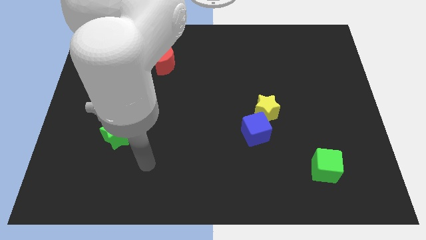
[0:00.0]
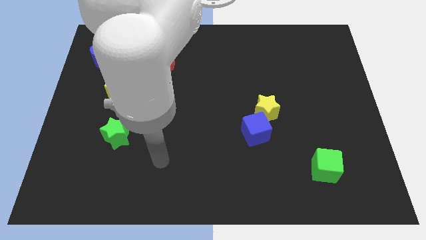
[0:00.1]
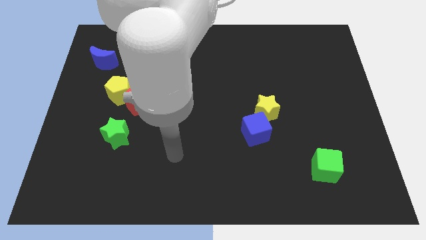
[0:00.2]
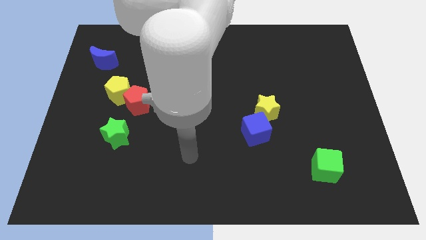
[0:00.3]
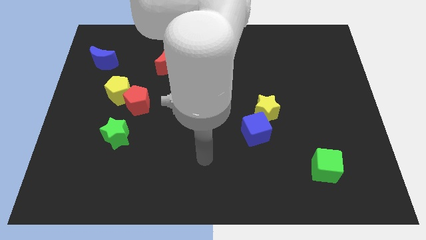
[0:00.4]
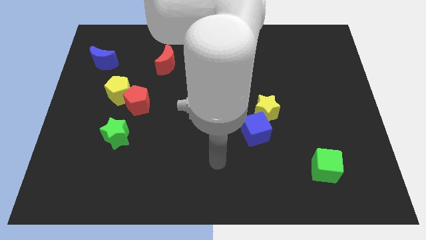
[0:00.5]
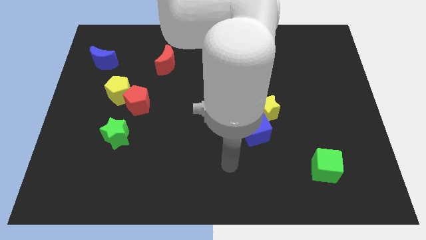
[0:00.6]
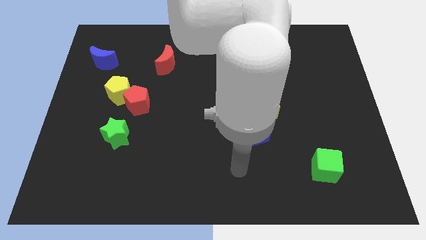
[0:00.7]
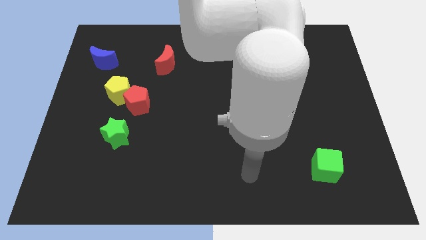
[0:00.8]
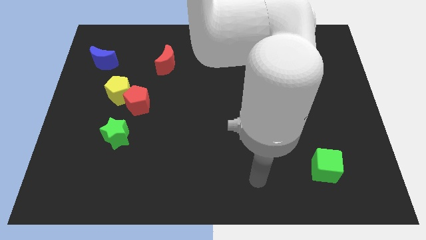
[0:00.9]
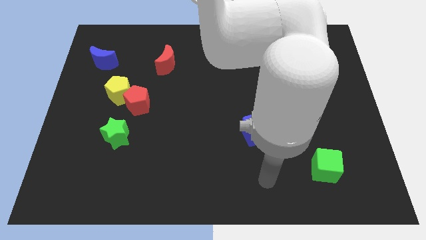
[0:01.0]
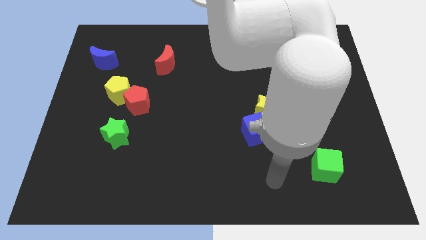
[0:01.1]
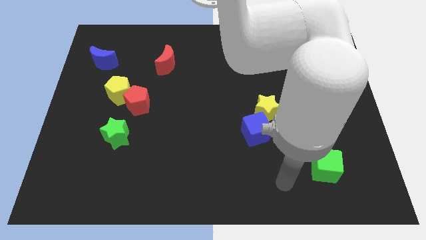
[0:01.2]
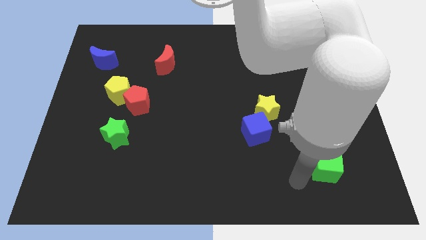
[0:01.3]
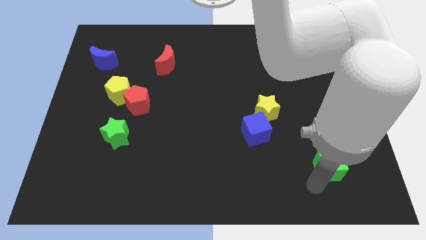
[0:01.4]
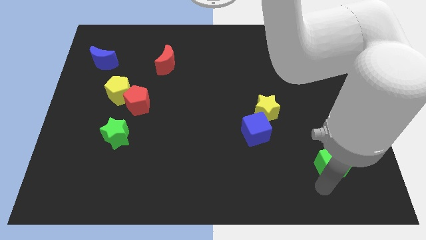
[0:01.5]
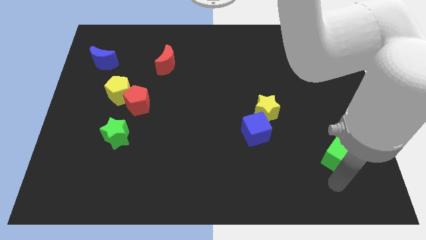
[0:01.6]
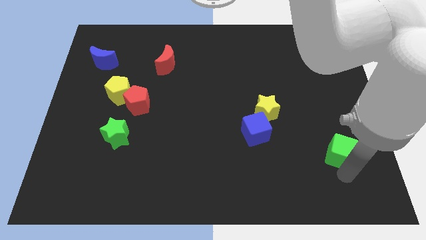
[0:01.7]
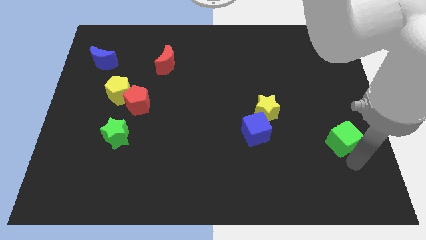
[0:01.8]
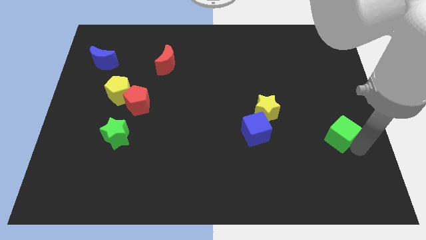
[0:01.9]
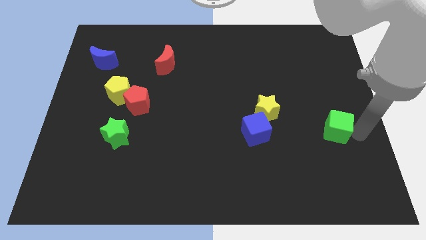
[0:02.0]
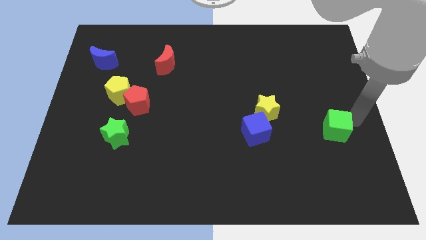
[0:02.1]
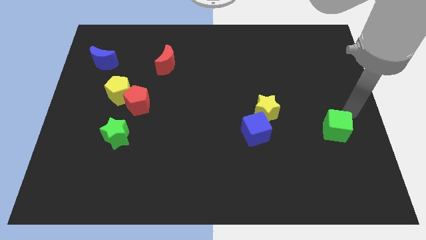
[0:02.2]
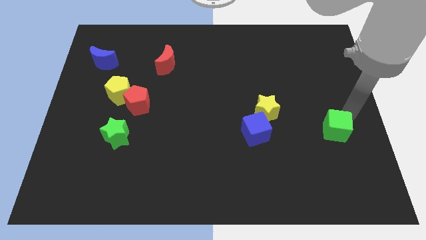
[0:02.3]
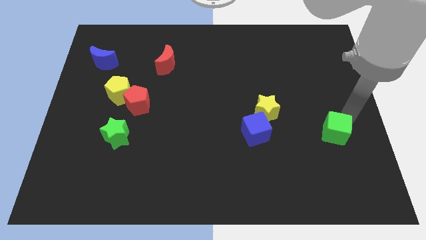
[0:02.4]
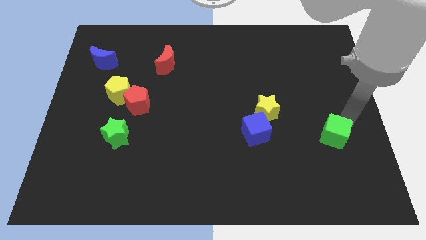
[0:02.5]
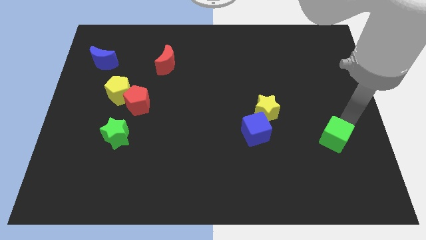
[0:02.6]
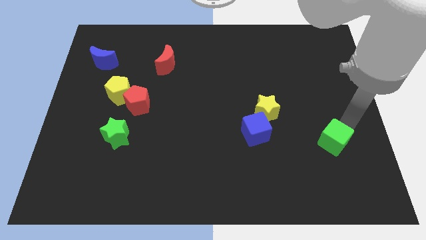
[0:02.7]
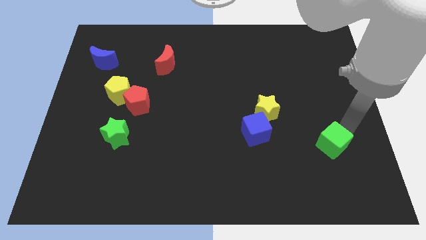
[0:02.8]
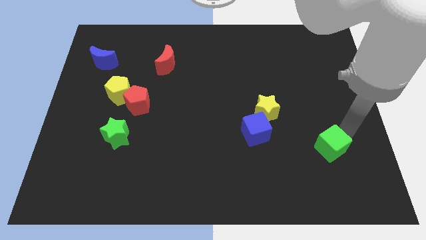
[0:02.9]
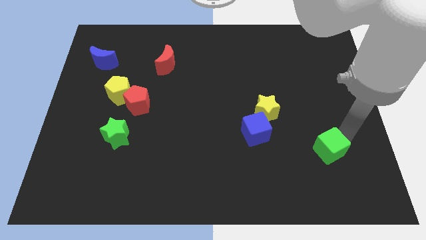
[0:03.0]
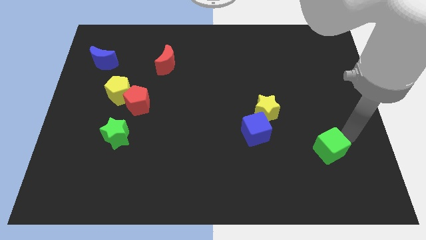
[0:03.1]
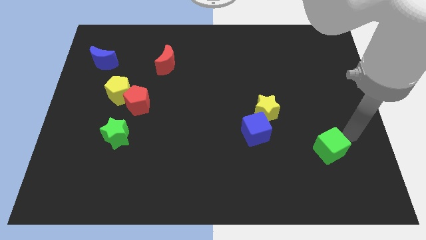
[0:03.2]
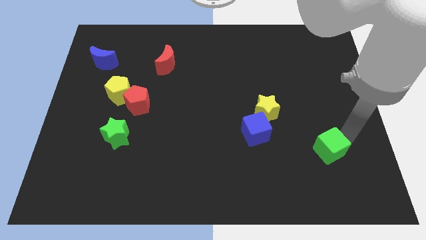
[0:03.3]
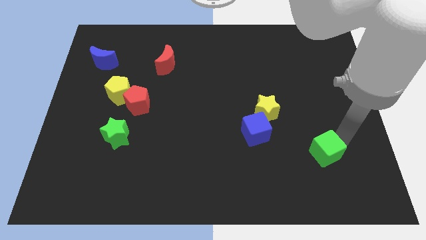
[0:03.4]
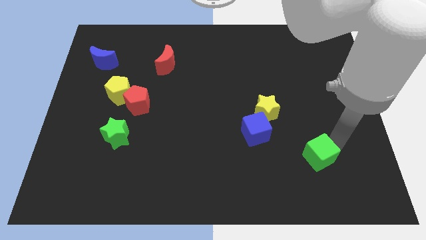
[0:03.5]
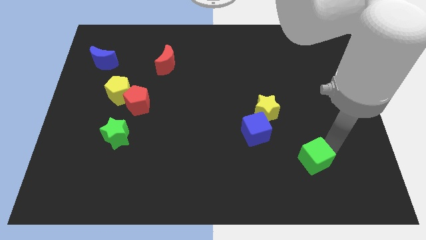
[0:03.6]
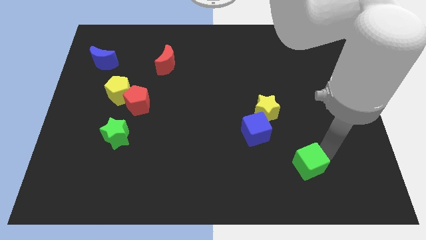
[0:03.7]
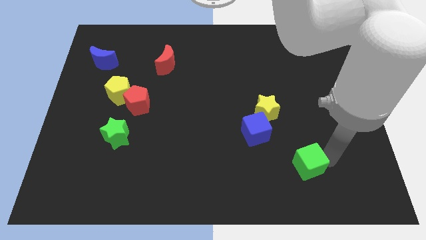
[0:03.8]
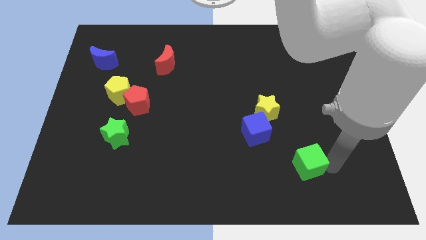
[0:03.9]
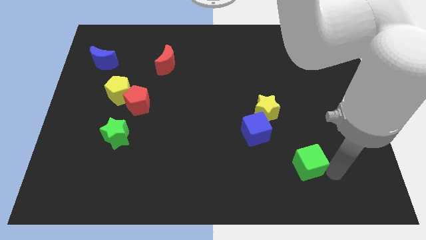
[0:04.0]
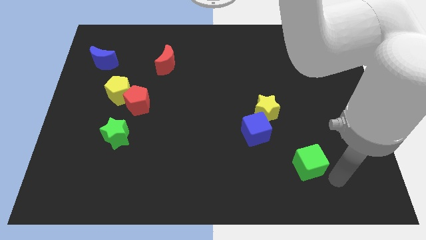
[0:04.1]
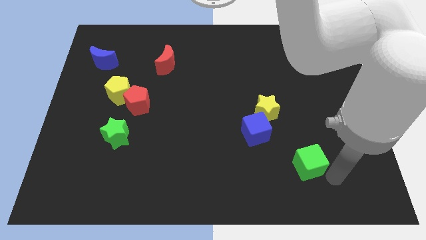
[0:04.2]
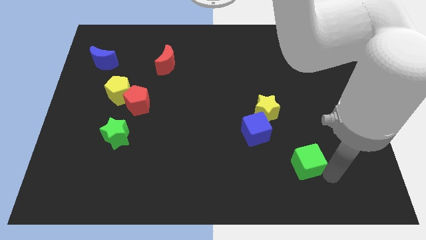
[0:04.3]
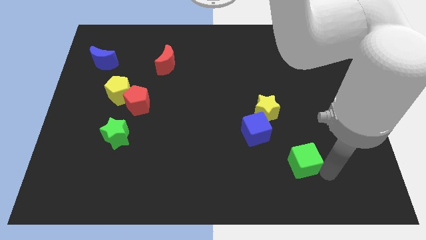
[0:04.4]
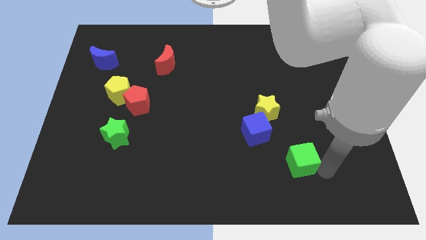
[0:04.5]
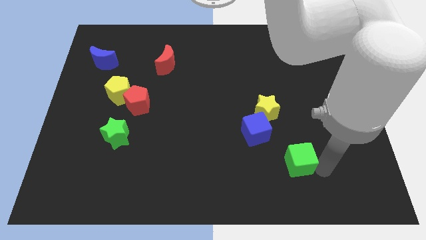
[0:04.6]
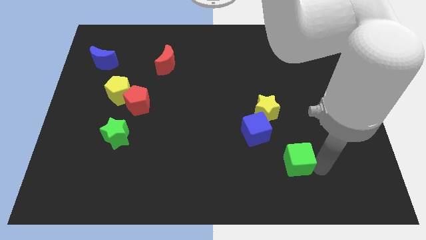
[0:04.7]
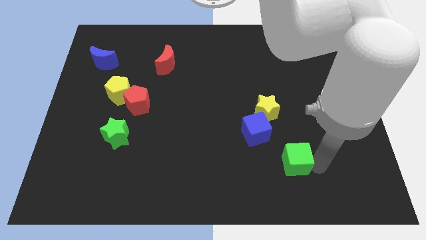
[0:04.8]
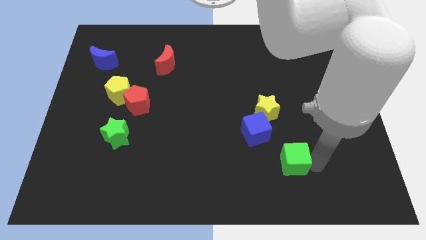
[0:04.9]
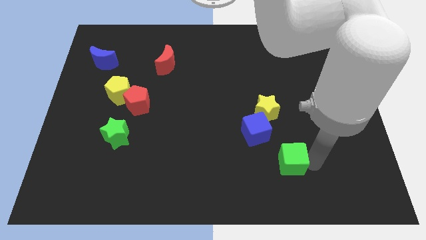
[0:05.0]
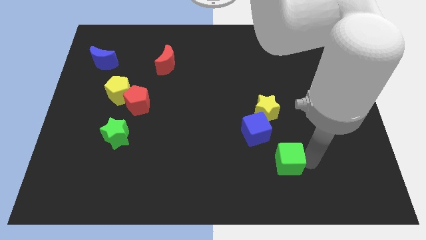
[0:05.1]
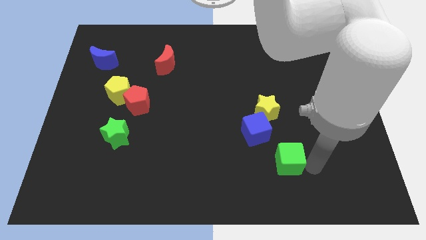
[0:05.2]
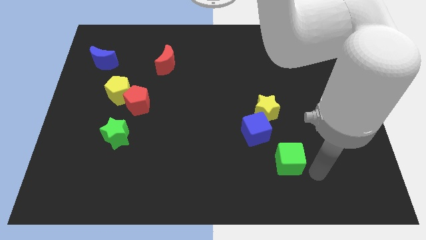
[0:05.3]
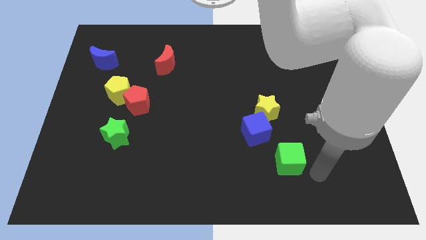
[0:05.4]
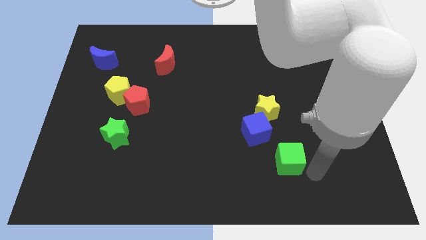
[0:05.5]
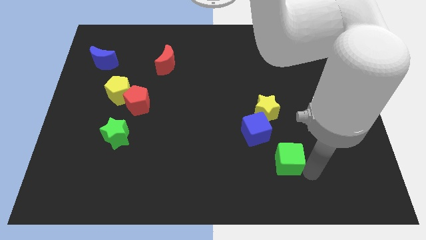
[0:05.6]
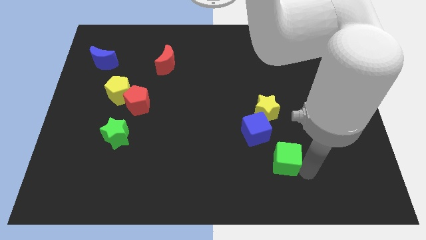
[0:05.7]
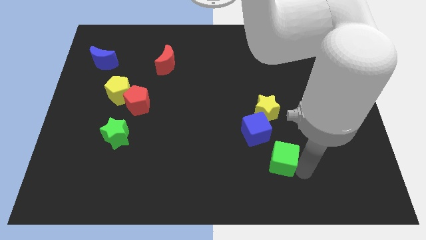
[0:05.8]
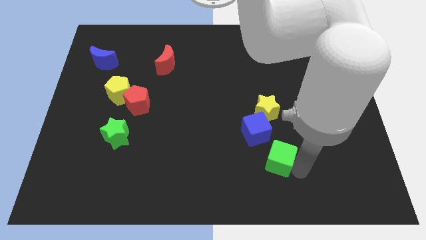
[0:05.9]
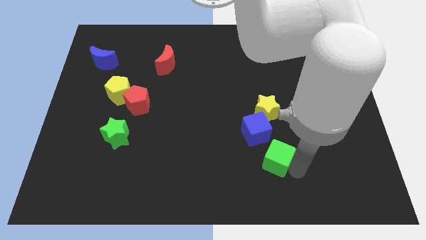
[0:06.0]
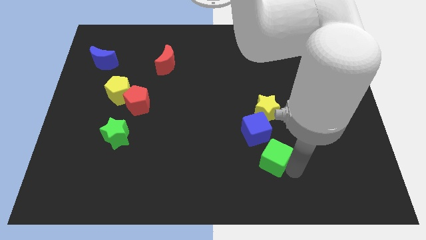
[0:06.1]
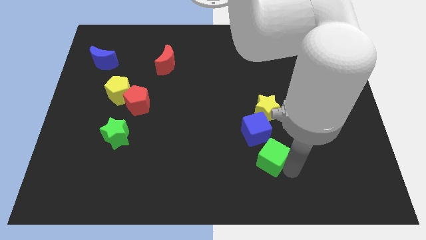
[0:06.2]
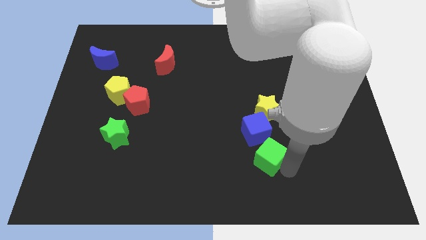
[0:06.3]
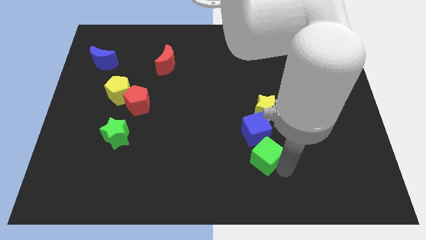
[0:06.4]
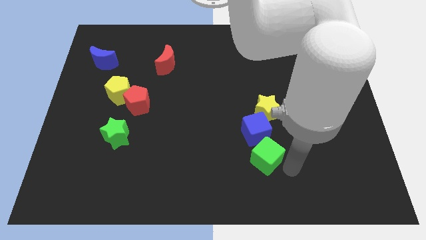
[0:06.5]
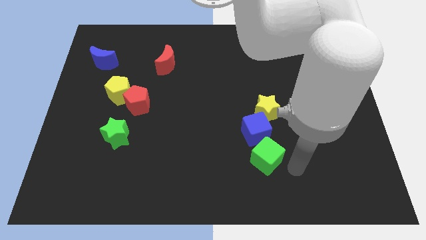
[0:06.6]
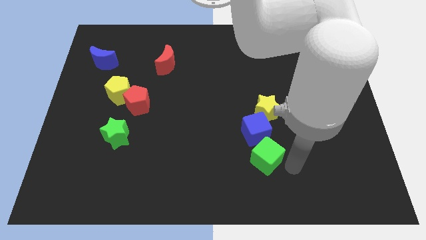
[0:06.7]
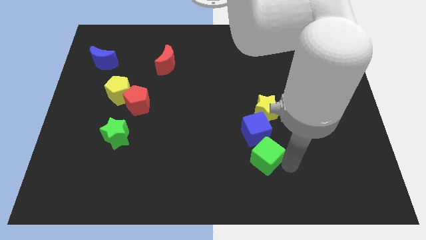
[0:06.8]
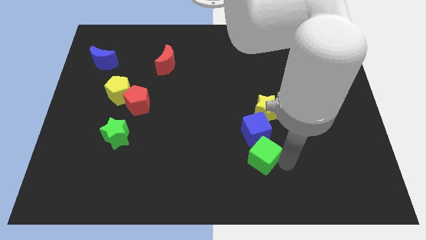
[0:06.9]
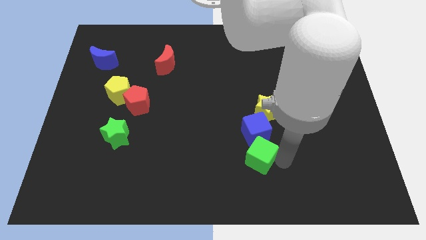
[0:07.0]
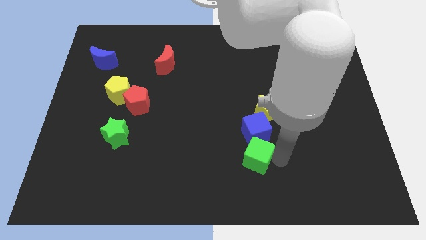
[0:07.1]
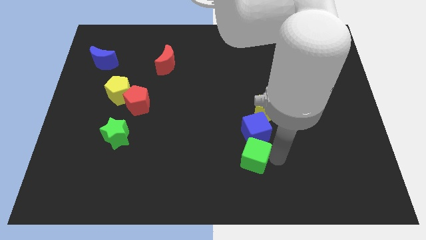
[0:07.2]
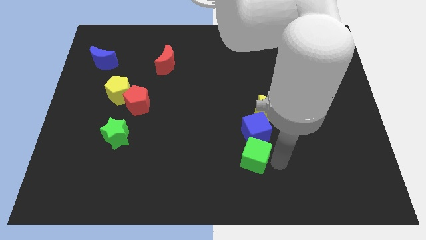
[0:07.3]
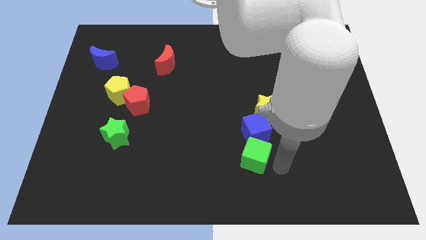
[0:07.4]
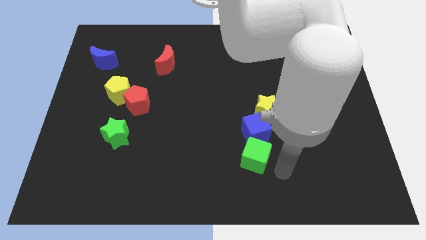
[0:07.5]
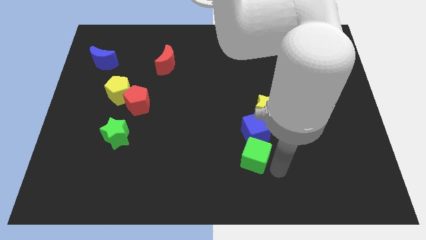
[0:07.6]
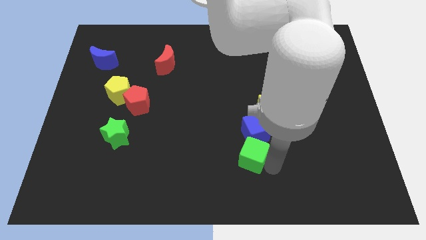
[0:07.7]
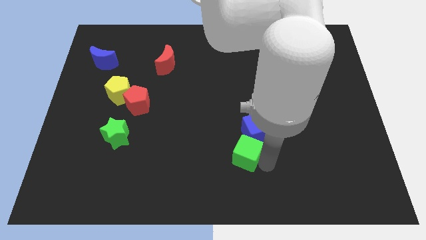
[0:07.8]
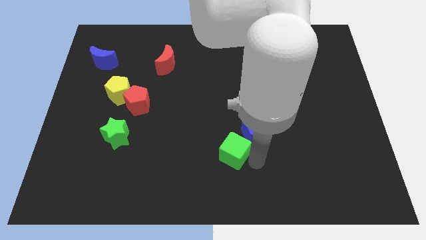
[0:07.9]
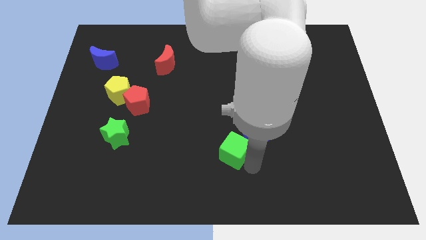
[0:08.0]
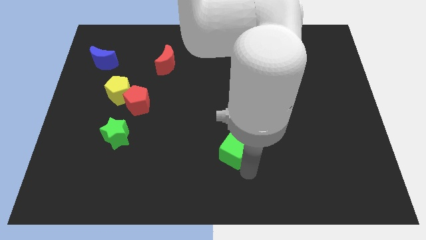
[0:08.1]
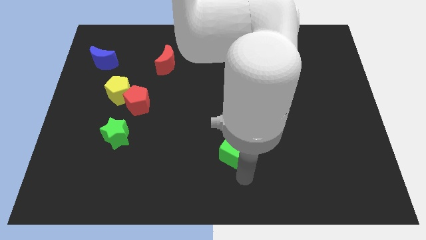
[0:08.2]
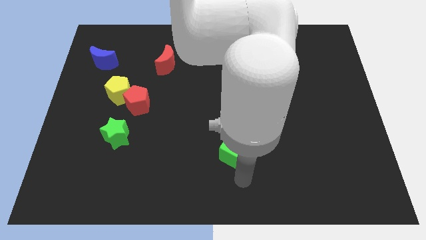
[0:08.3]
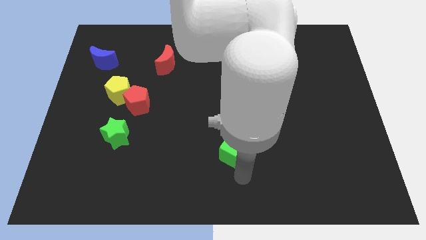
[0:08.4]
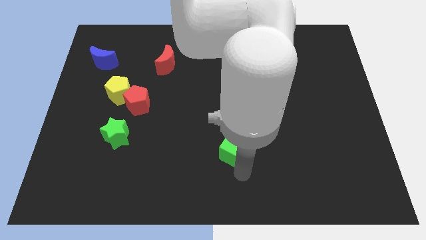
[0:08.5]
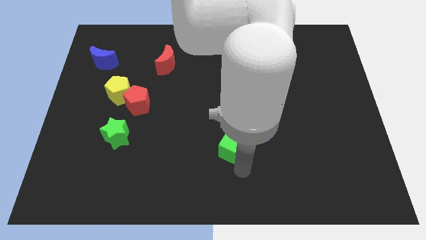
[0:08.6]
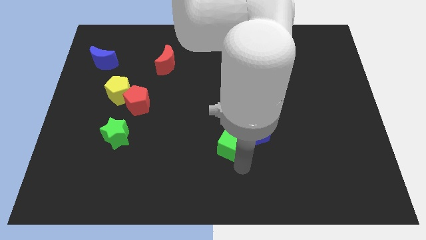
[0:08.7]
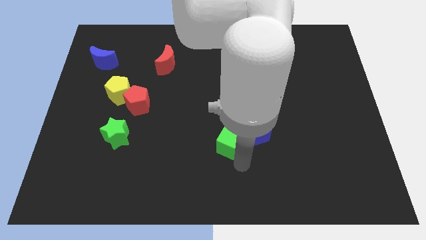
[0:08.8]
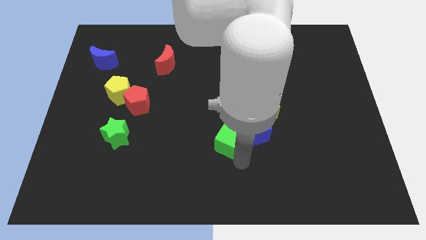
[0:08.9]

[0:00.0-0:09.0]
move the green cube to the center of the board
